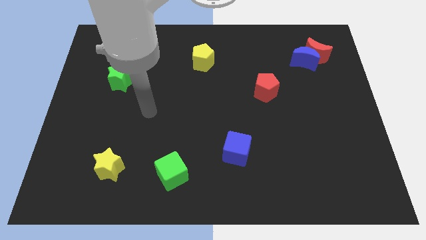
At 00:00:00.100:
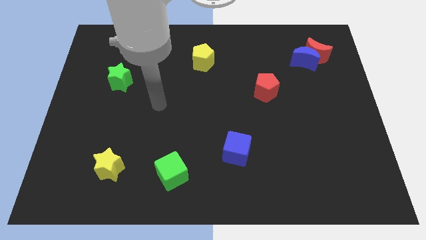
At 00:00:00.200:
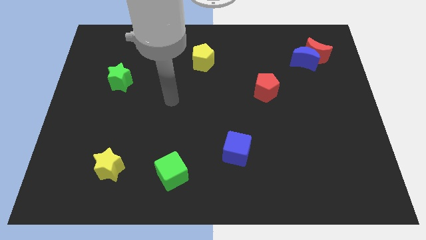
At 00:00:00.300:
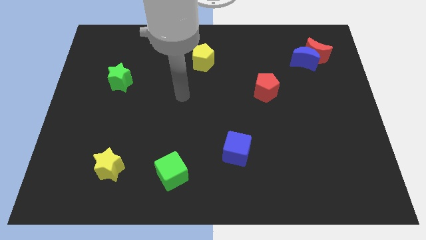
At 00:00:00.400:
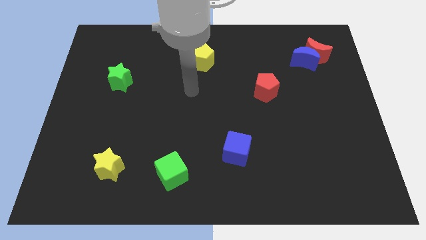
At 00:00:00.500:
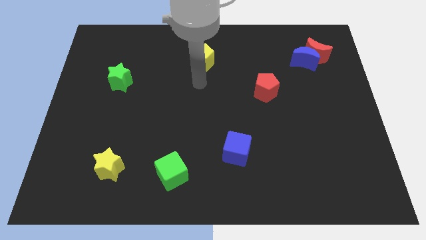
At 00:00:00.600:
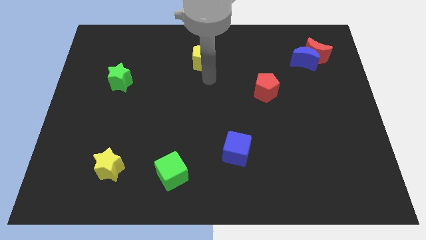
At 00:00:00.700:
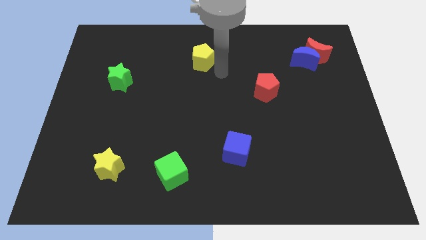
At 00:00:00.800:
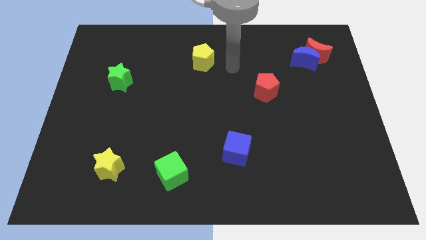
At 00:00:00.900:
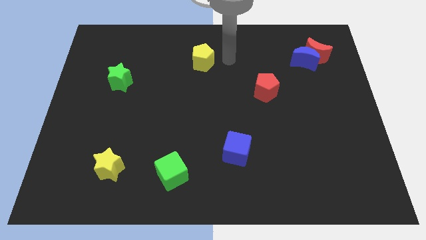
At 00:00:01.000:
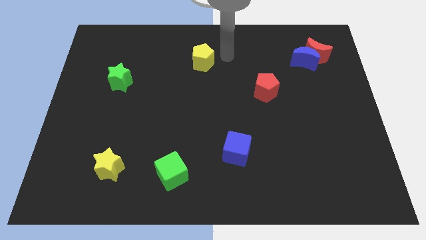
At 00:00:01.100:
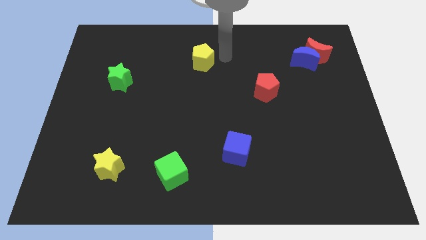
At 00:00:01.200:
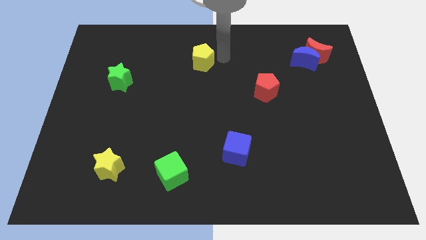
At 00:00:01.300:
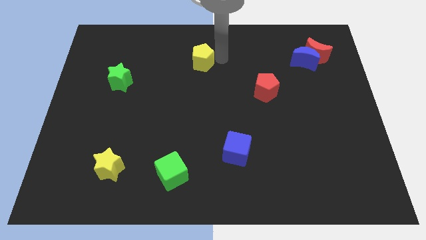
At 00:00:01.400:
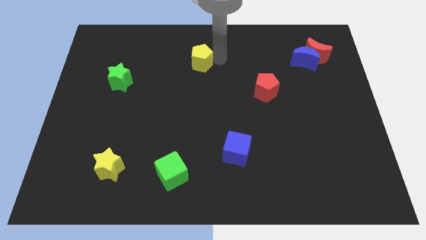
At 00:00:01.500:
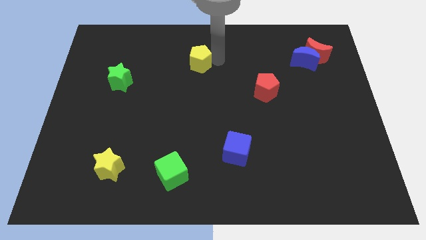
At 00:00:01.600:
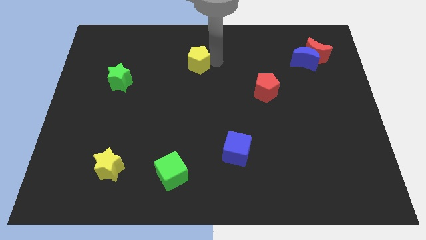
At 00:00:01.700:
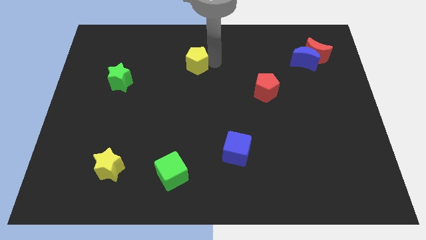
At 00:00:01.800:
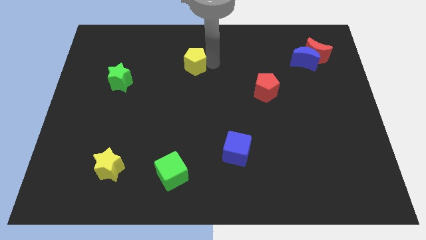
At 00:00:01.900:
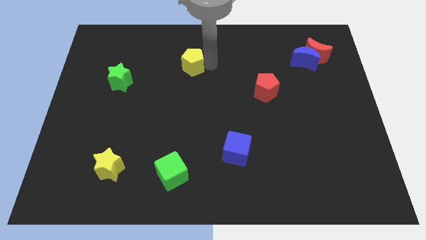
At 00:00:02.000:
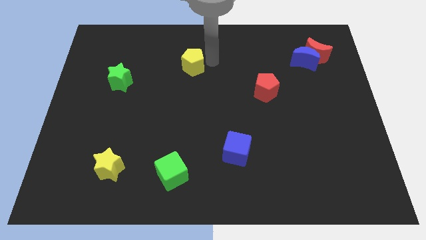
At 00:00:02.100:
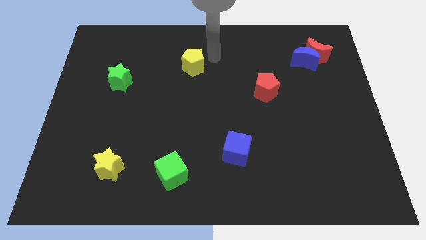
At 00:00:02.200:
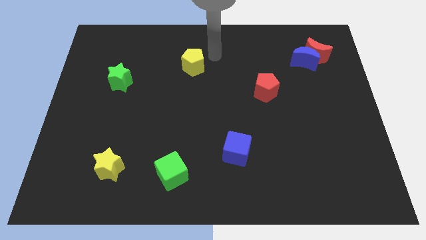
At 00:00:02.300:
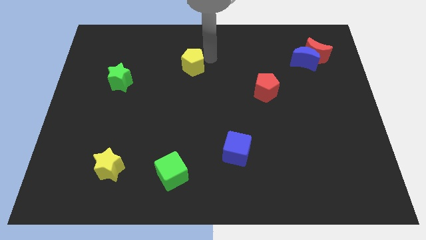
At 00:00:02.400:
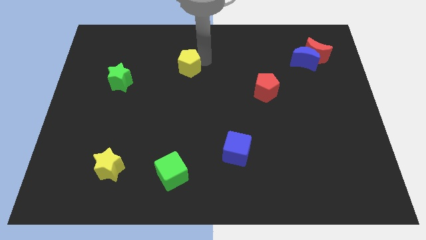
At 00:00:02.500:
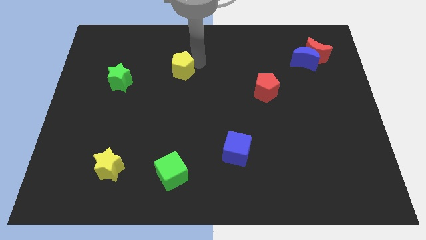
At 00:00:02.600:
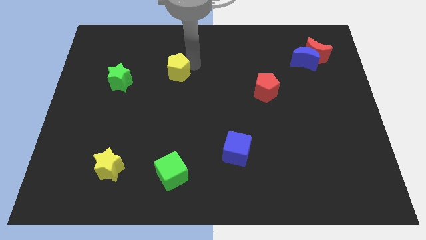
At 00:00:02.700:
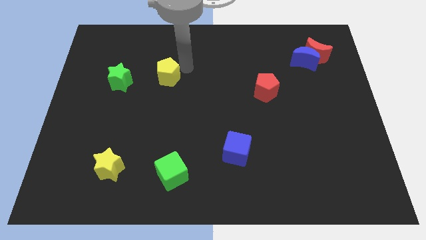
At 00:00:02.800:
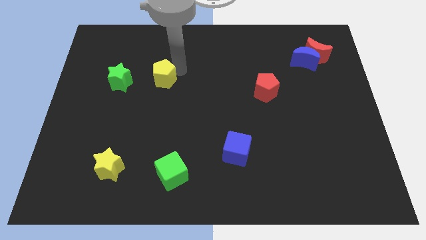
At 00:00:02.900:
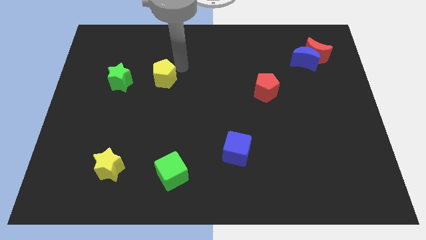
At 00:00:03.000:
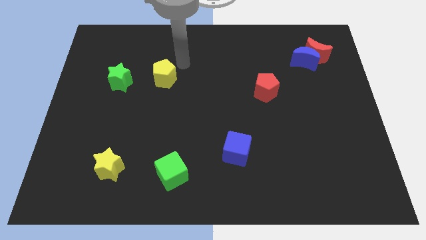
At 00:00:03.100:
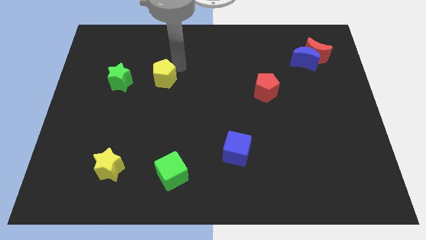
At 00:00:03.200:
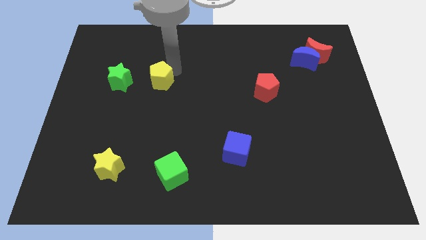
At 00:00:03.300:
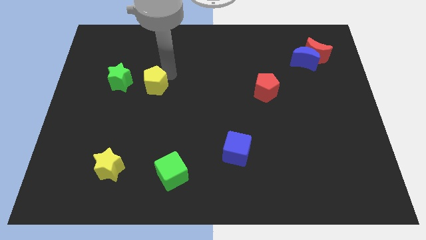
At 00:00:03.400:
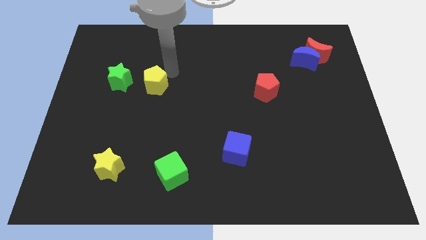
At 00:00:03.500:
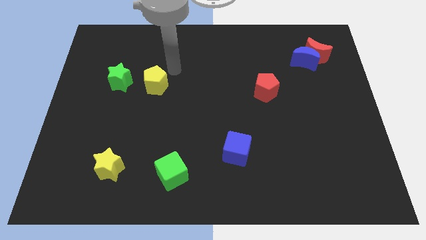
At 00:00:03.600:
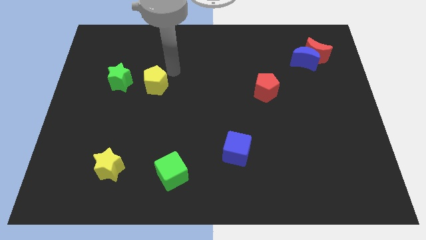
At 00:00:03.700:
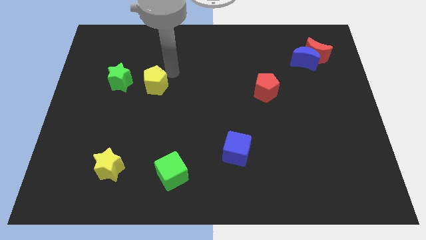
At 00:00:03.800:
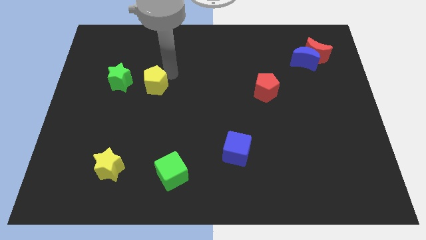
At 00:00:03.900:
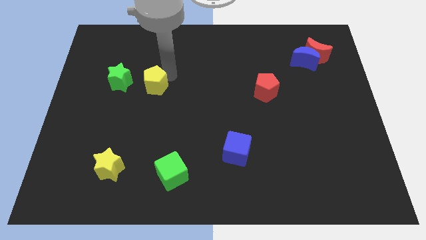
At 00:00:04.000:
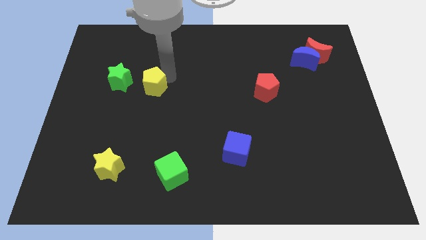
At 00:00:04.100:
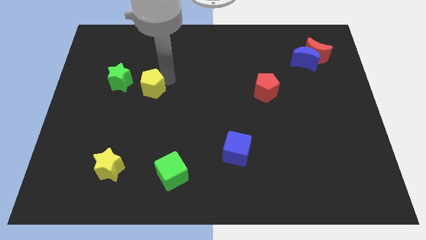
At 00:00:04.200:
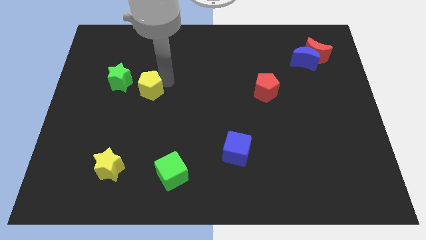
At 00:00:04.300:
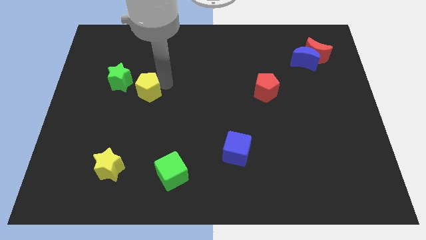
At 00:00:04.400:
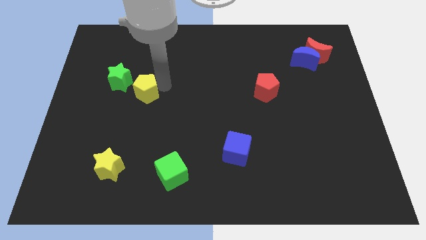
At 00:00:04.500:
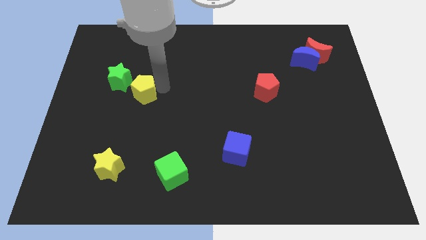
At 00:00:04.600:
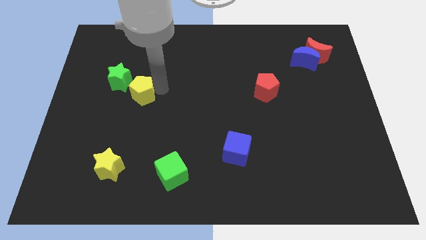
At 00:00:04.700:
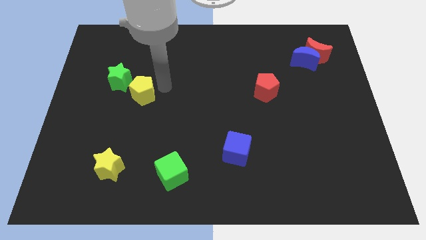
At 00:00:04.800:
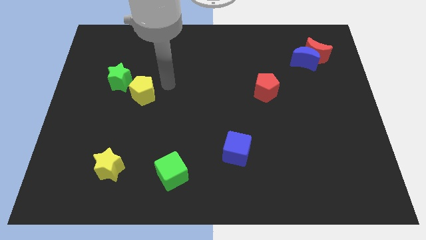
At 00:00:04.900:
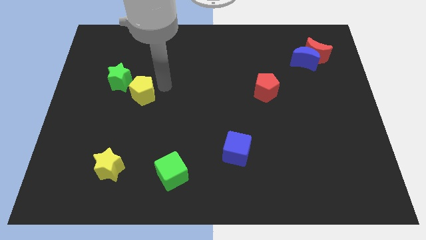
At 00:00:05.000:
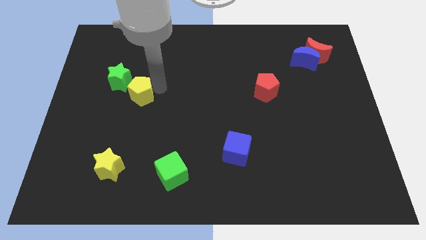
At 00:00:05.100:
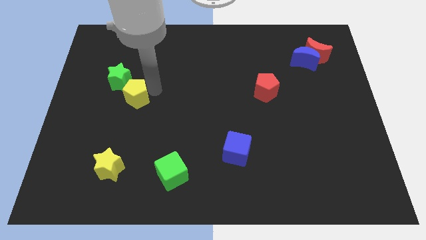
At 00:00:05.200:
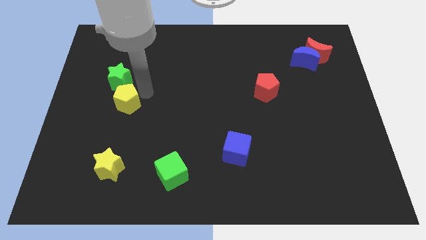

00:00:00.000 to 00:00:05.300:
slide the yellow pentagon down and to the left diagonally

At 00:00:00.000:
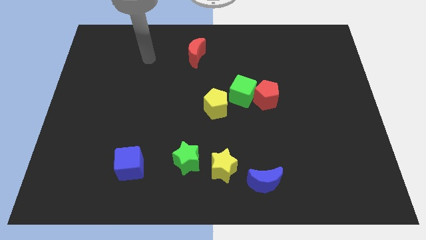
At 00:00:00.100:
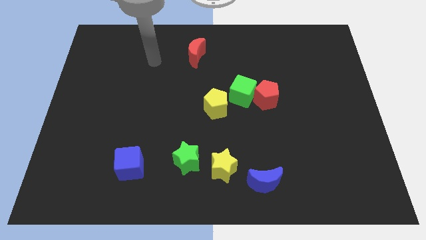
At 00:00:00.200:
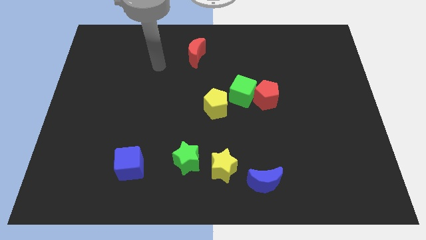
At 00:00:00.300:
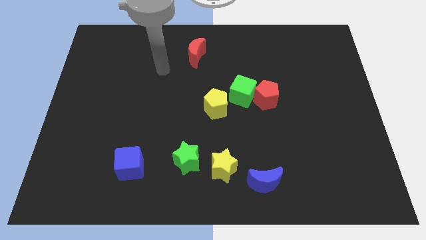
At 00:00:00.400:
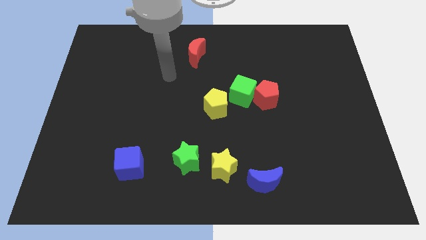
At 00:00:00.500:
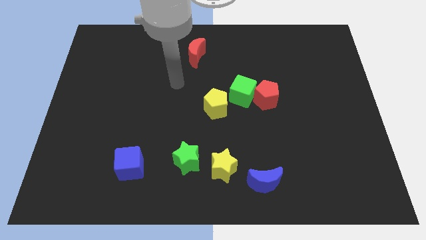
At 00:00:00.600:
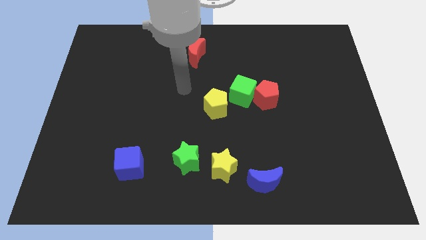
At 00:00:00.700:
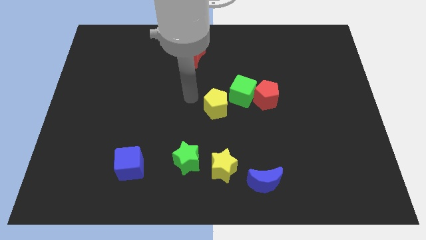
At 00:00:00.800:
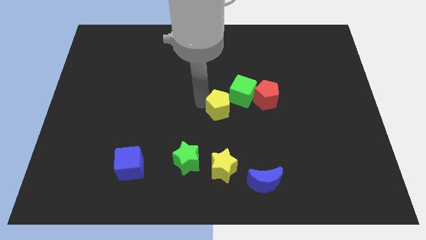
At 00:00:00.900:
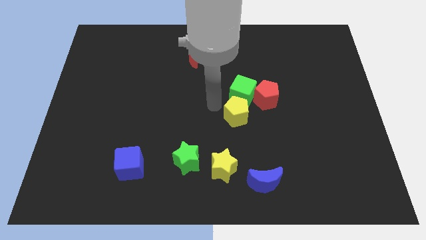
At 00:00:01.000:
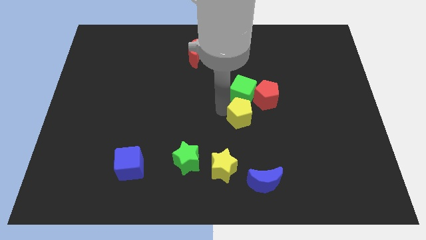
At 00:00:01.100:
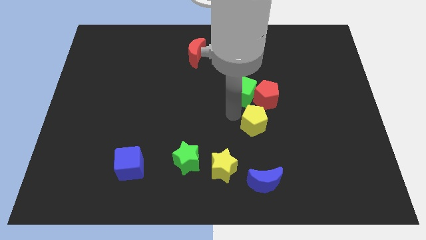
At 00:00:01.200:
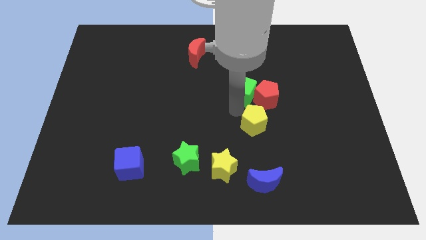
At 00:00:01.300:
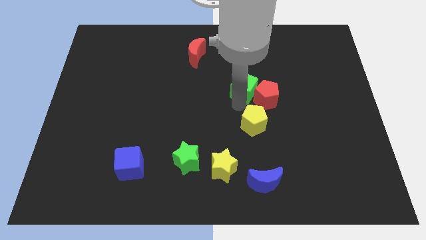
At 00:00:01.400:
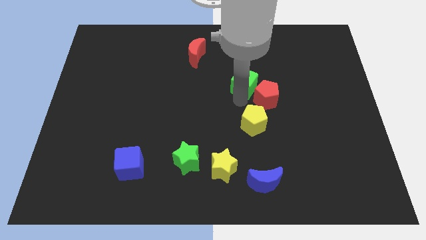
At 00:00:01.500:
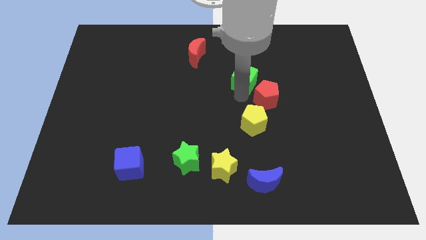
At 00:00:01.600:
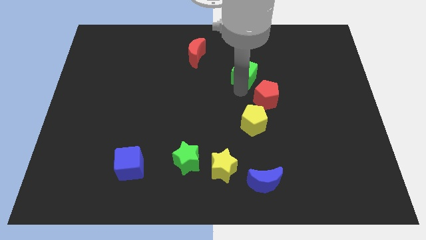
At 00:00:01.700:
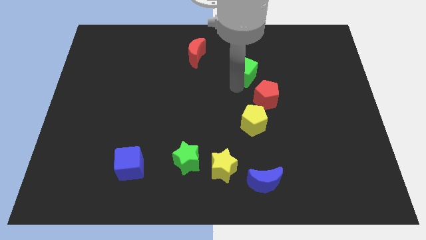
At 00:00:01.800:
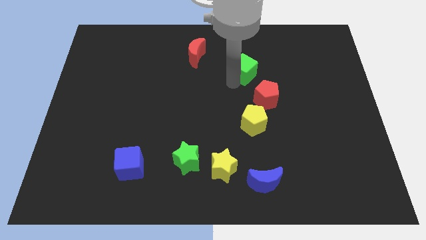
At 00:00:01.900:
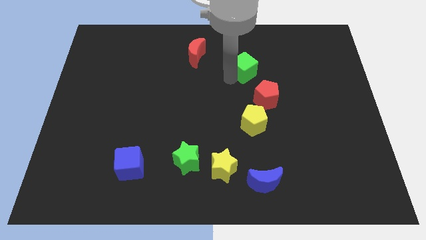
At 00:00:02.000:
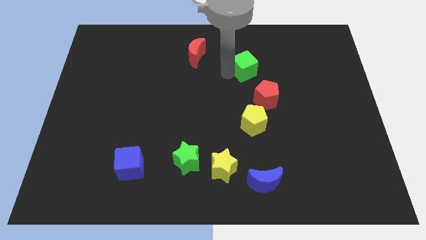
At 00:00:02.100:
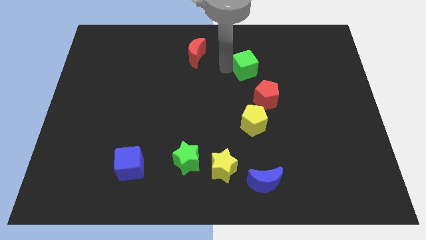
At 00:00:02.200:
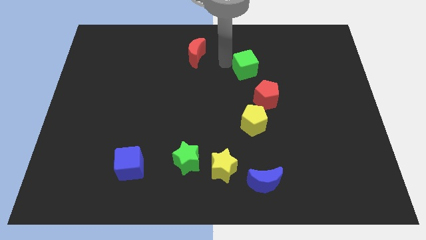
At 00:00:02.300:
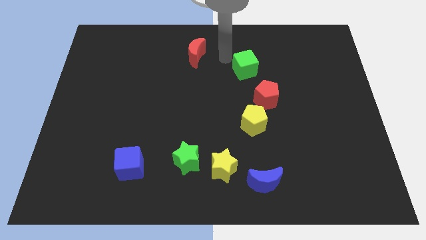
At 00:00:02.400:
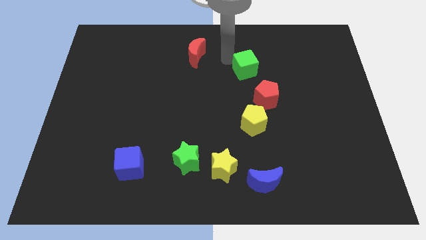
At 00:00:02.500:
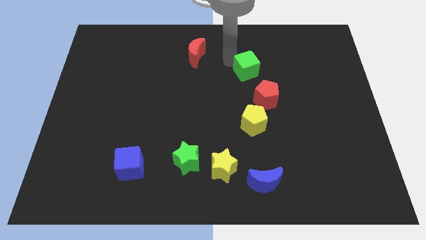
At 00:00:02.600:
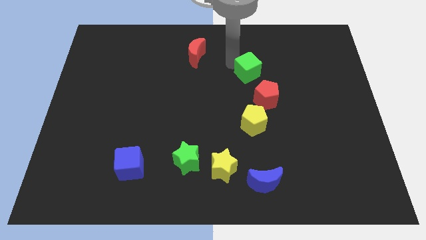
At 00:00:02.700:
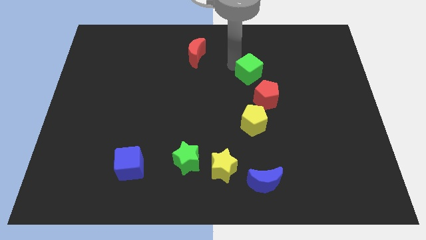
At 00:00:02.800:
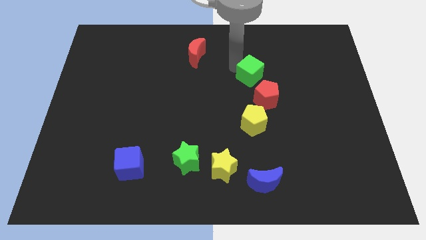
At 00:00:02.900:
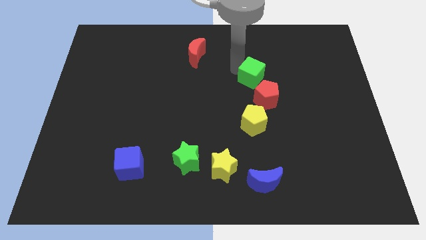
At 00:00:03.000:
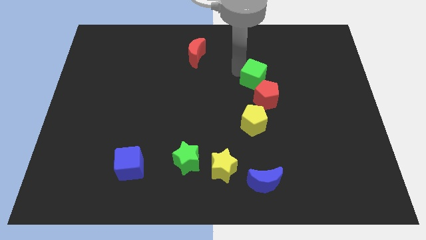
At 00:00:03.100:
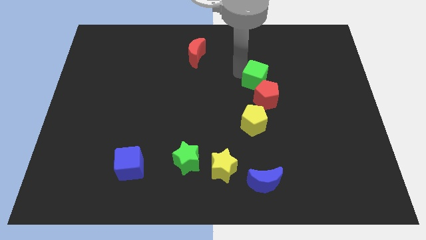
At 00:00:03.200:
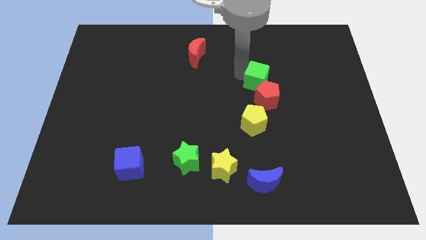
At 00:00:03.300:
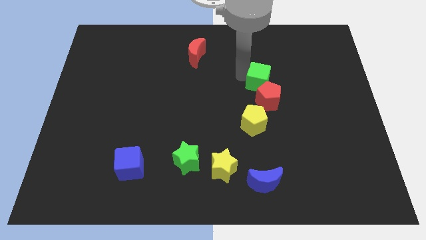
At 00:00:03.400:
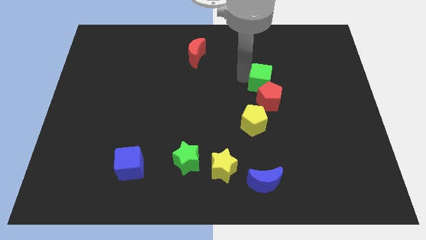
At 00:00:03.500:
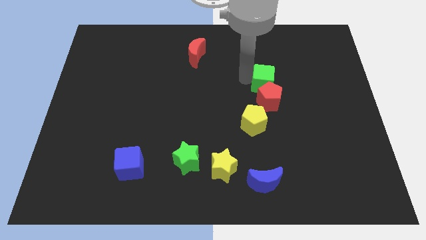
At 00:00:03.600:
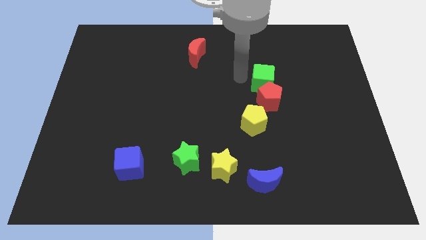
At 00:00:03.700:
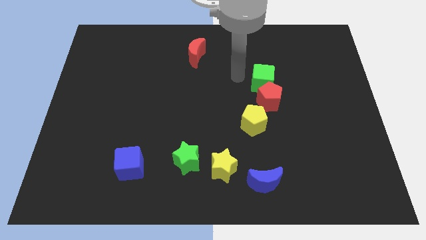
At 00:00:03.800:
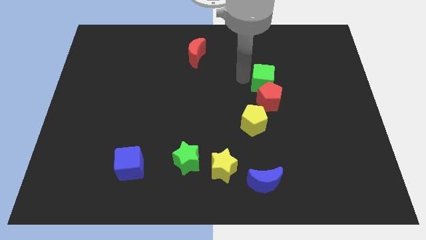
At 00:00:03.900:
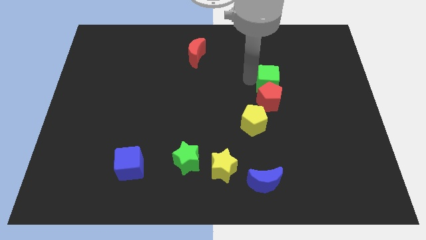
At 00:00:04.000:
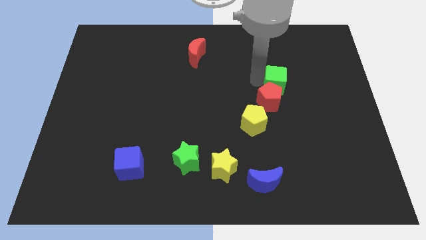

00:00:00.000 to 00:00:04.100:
slide the green cube slightly right
